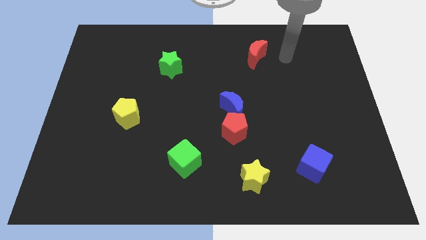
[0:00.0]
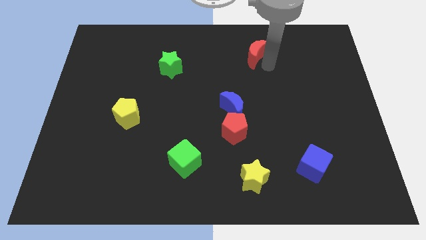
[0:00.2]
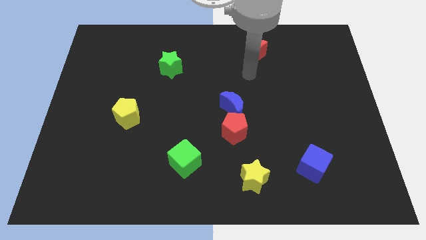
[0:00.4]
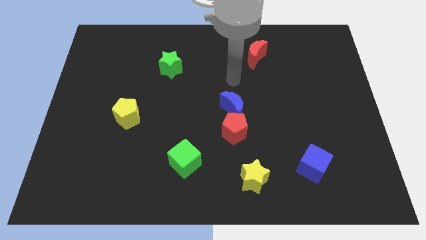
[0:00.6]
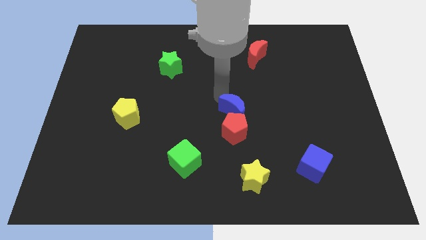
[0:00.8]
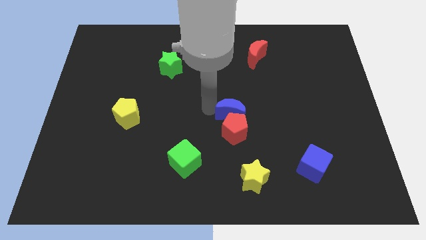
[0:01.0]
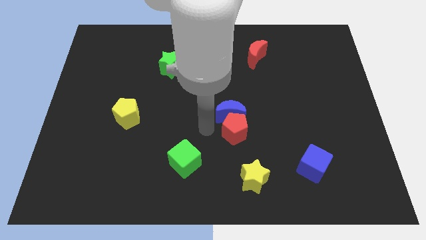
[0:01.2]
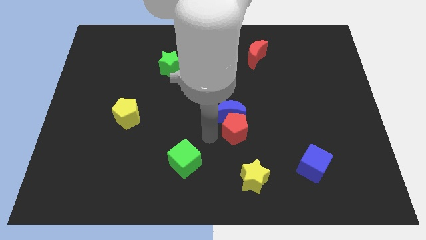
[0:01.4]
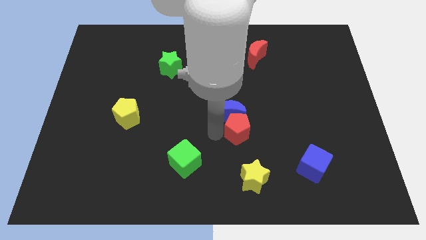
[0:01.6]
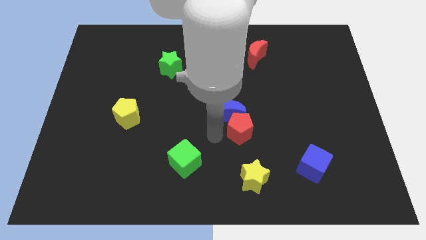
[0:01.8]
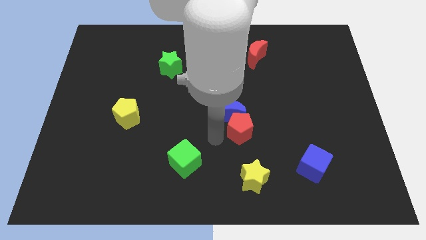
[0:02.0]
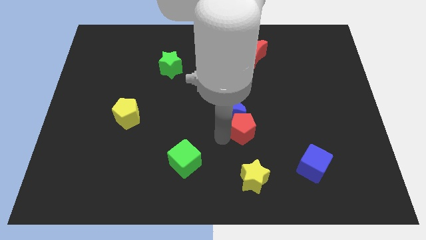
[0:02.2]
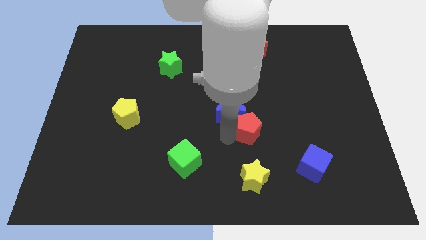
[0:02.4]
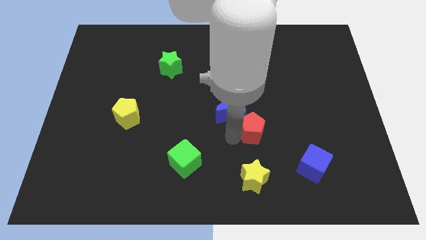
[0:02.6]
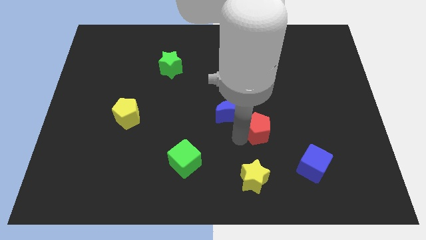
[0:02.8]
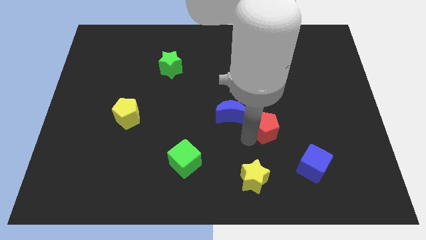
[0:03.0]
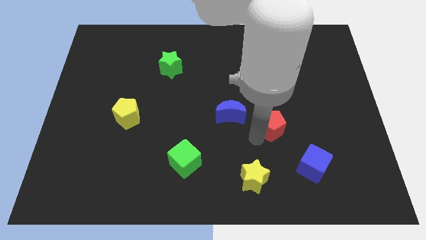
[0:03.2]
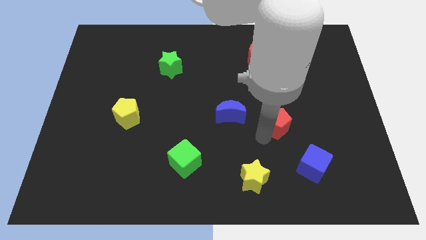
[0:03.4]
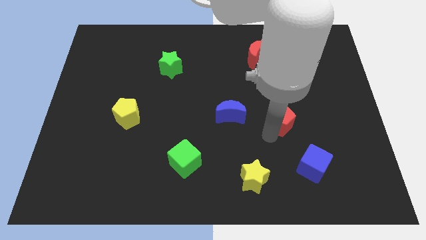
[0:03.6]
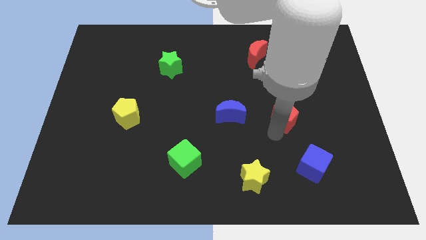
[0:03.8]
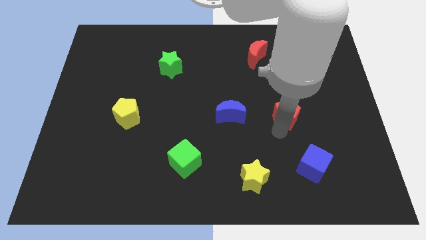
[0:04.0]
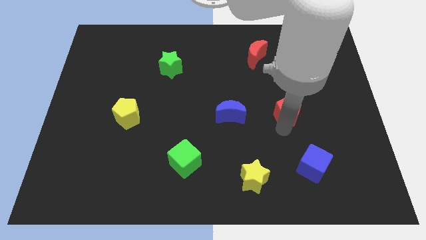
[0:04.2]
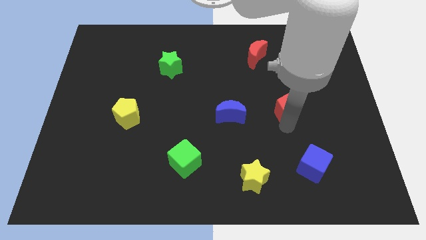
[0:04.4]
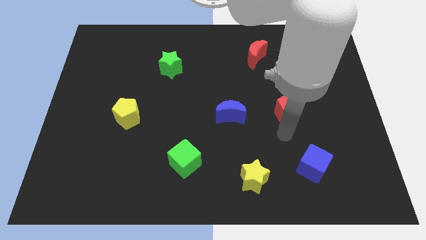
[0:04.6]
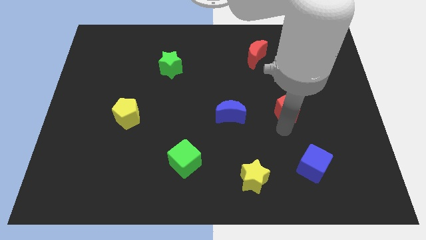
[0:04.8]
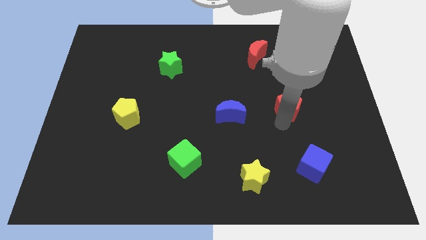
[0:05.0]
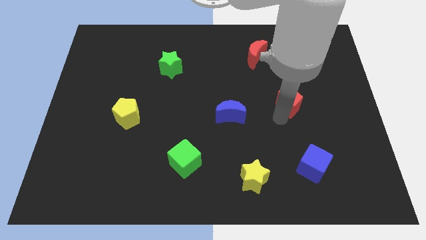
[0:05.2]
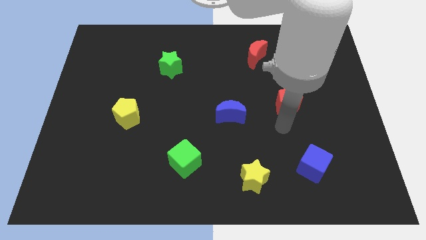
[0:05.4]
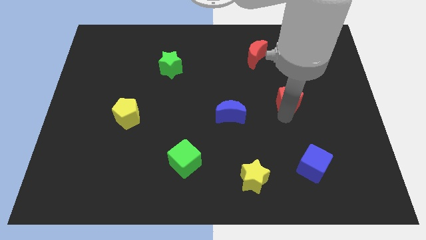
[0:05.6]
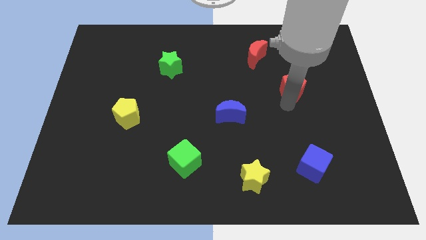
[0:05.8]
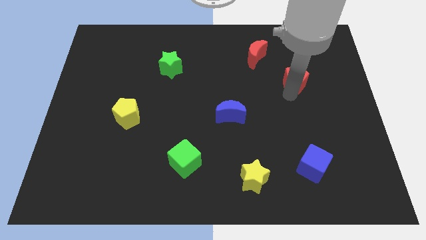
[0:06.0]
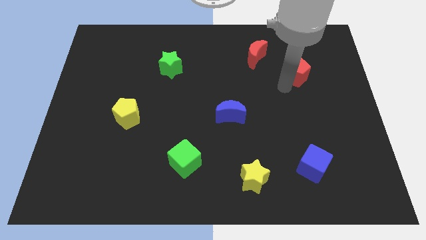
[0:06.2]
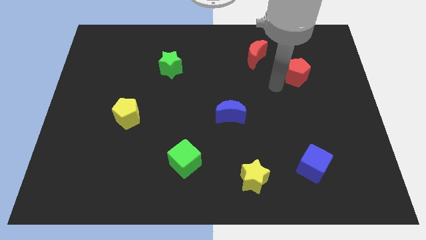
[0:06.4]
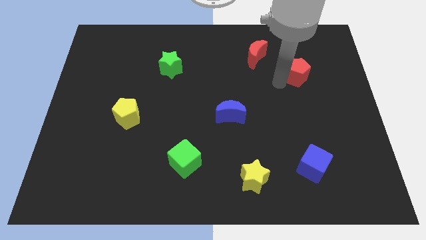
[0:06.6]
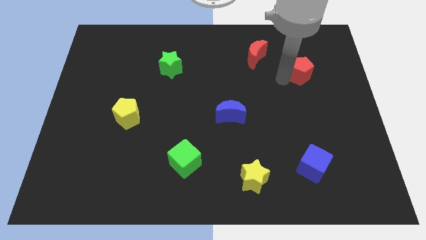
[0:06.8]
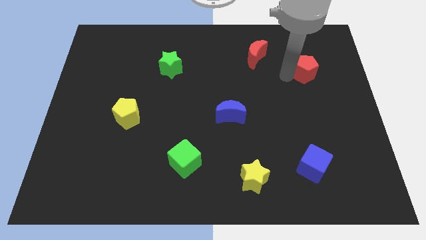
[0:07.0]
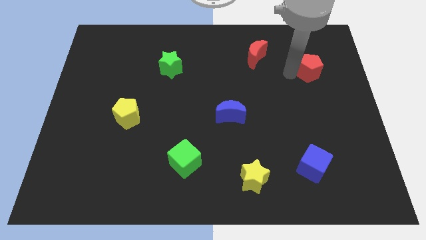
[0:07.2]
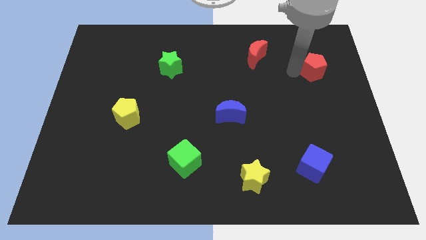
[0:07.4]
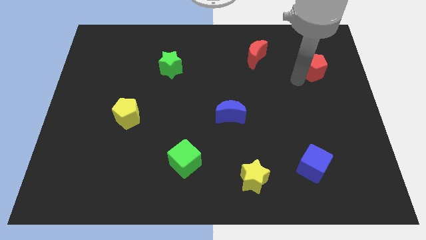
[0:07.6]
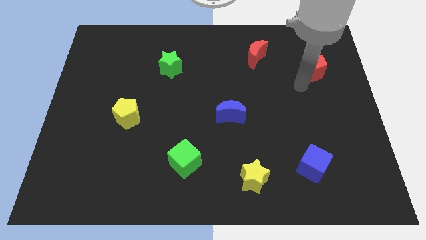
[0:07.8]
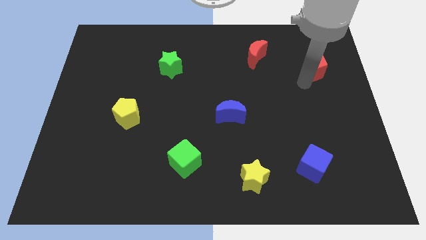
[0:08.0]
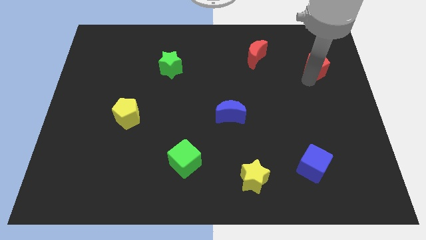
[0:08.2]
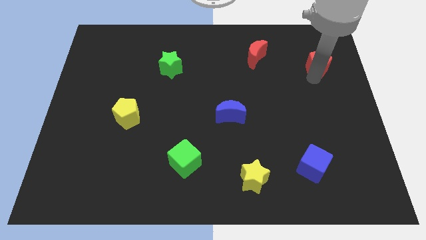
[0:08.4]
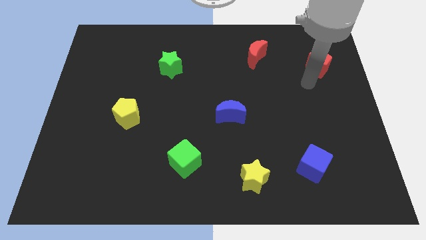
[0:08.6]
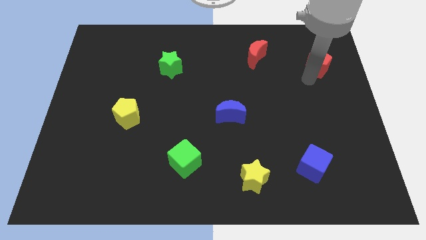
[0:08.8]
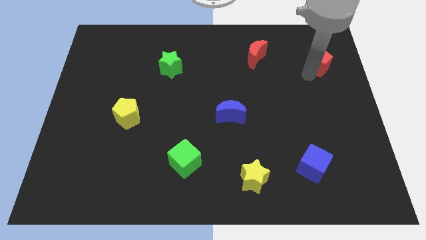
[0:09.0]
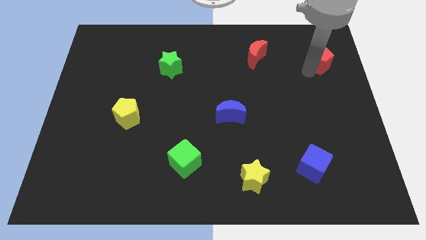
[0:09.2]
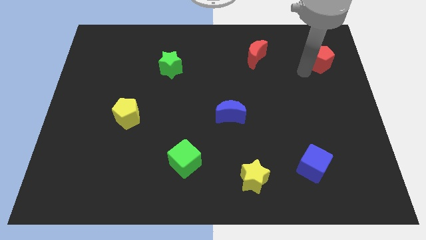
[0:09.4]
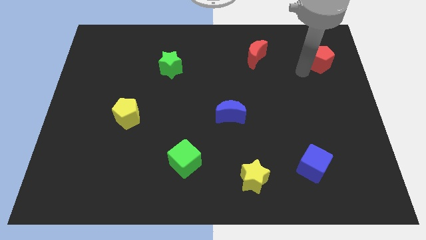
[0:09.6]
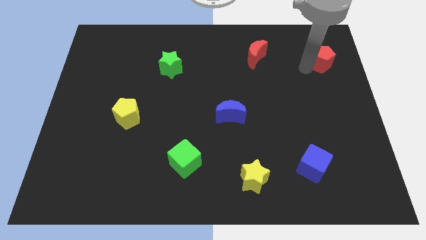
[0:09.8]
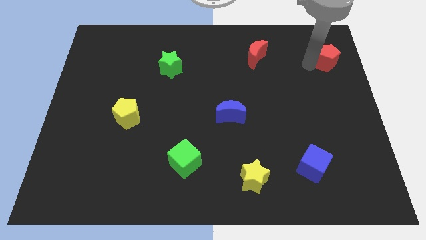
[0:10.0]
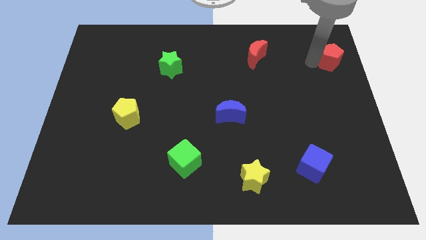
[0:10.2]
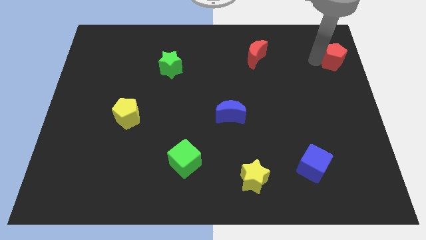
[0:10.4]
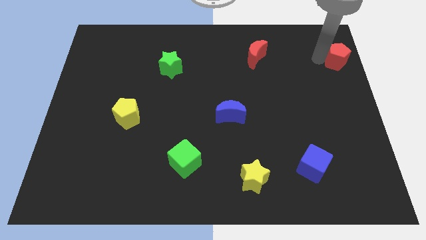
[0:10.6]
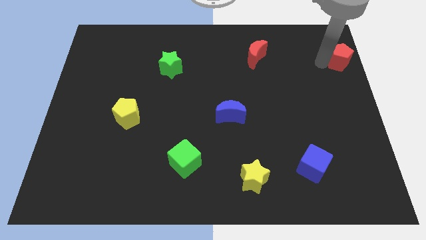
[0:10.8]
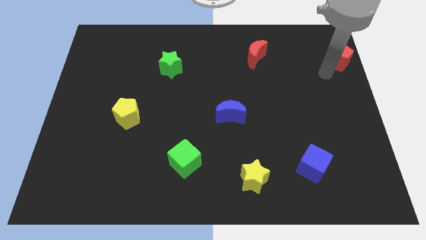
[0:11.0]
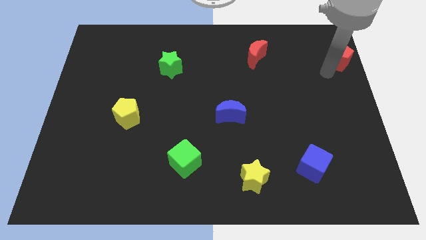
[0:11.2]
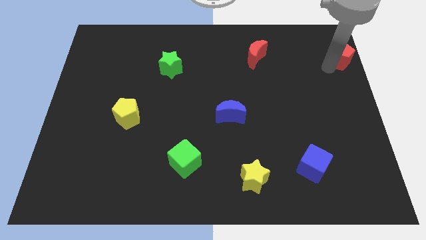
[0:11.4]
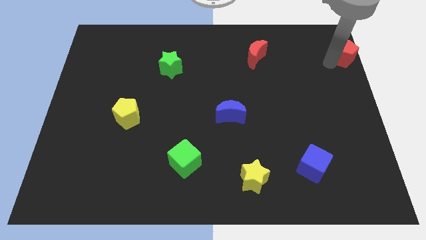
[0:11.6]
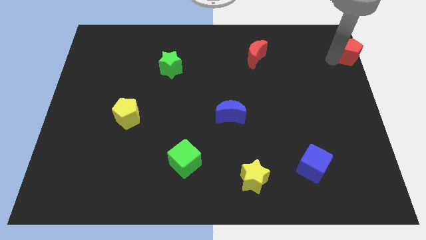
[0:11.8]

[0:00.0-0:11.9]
push the red pentagon to the top right

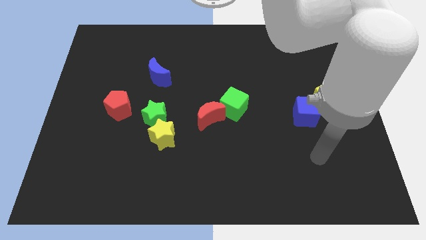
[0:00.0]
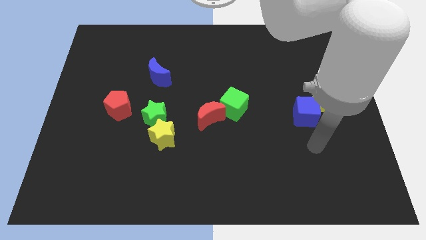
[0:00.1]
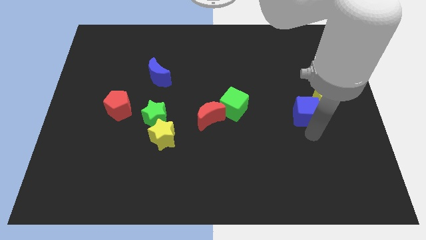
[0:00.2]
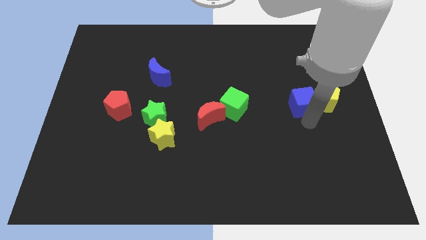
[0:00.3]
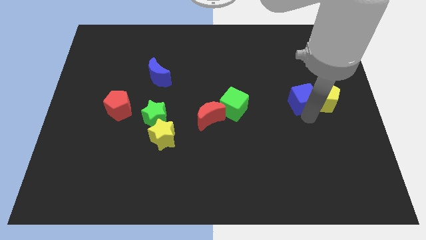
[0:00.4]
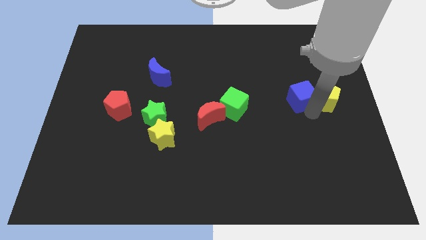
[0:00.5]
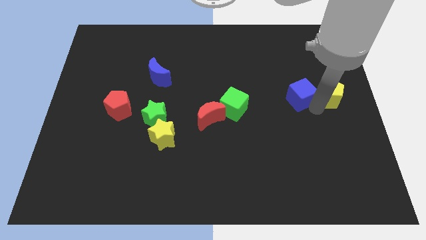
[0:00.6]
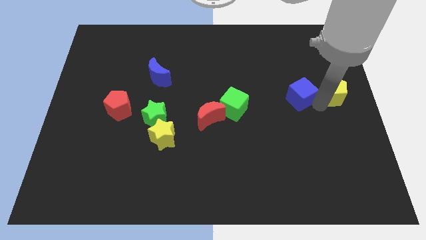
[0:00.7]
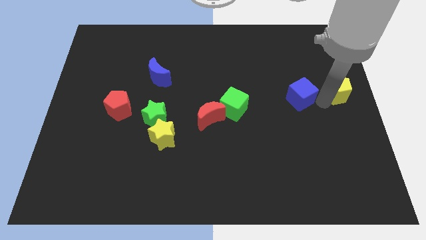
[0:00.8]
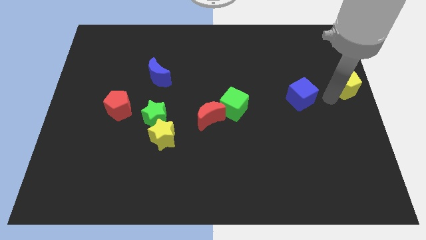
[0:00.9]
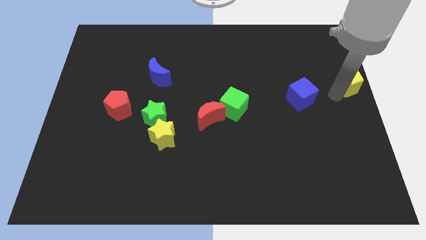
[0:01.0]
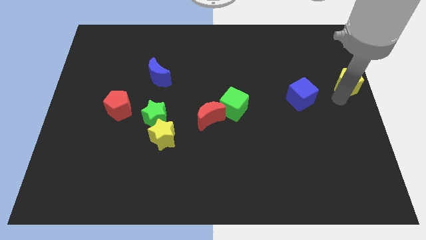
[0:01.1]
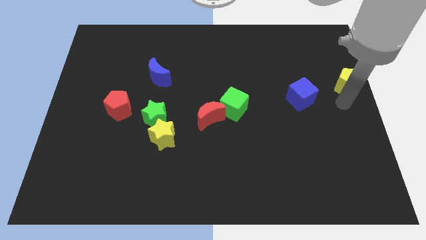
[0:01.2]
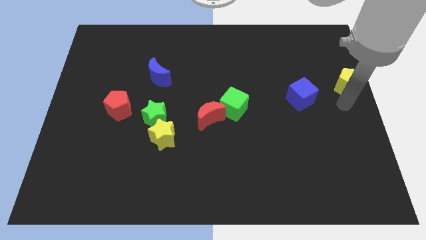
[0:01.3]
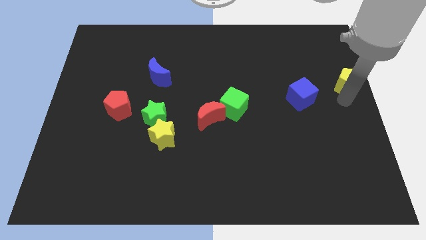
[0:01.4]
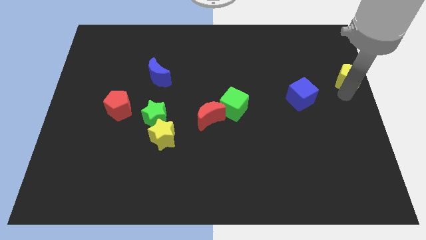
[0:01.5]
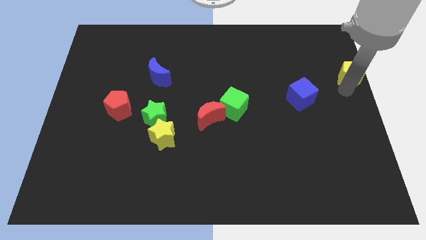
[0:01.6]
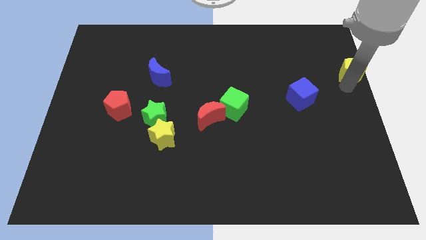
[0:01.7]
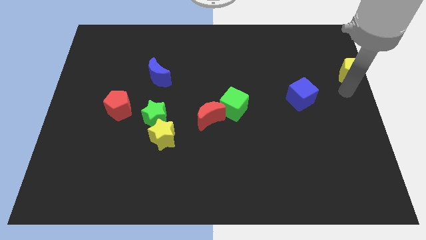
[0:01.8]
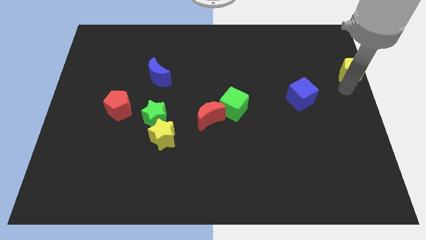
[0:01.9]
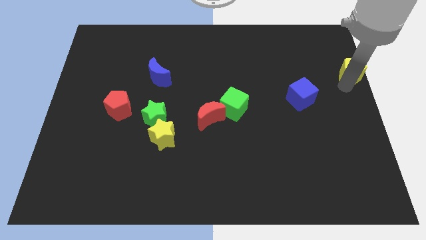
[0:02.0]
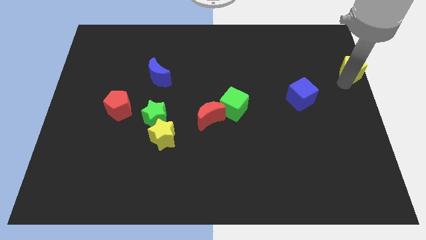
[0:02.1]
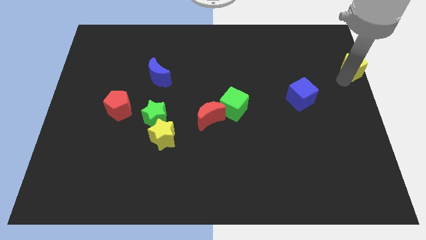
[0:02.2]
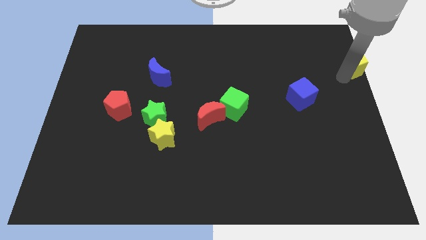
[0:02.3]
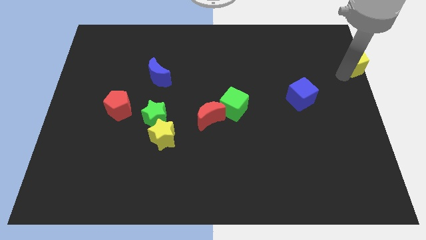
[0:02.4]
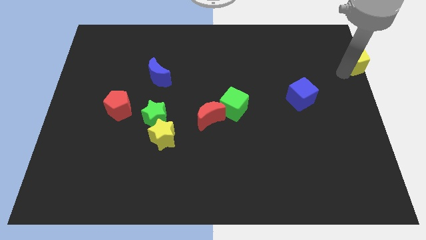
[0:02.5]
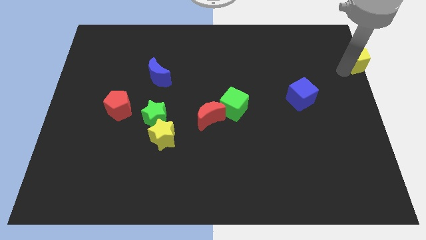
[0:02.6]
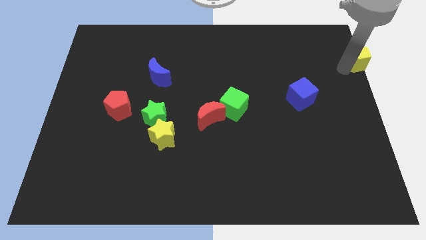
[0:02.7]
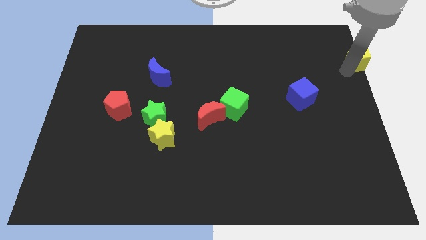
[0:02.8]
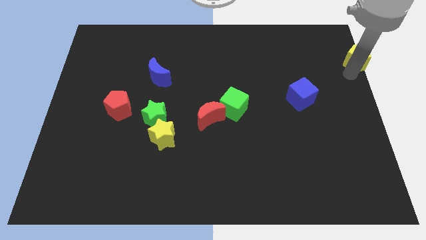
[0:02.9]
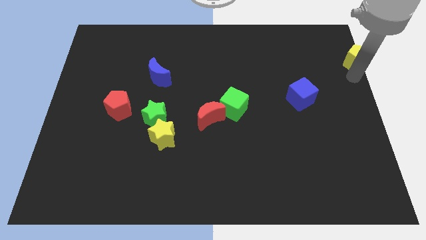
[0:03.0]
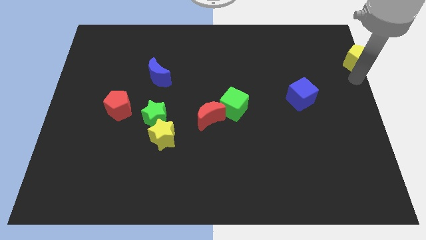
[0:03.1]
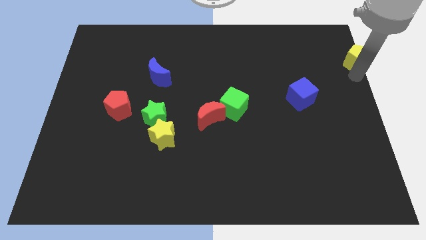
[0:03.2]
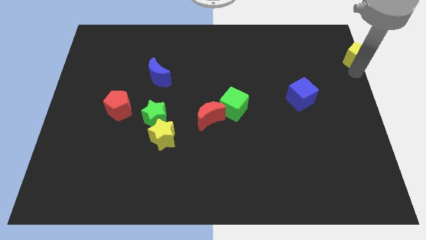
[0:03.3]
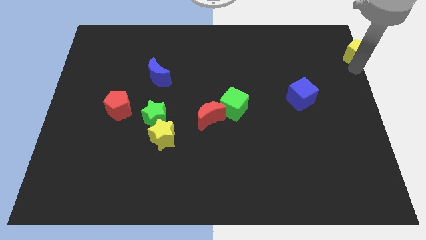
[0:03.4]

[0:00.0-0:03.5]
slide the yellow pentagon to the top right
